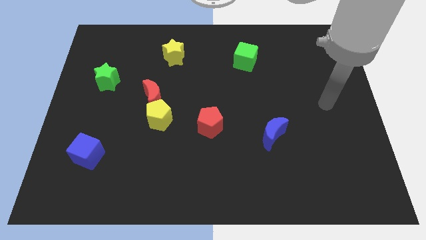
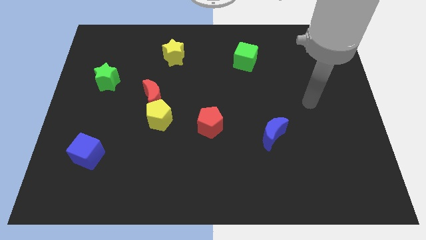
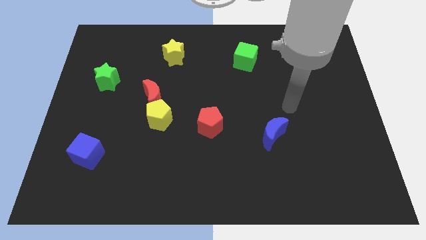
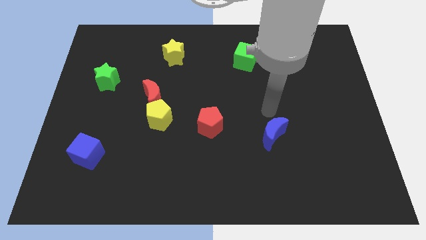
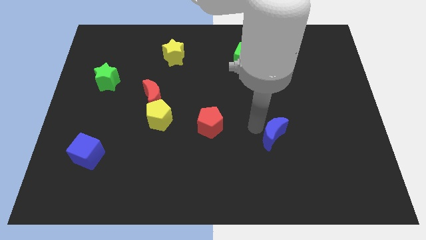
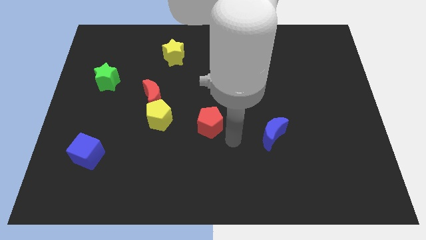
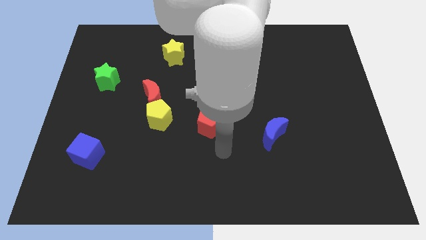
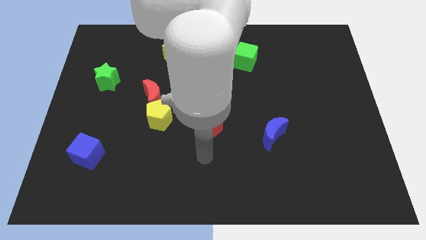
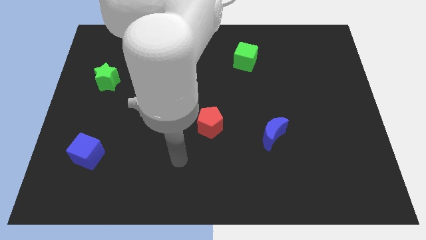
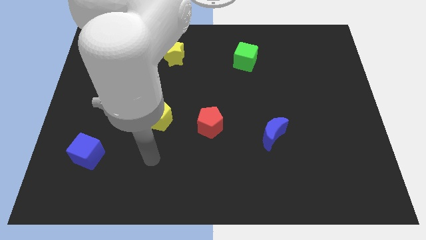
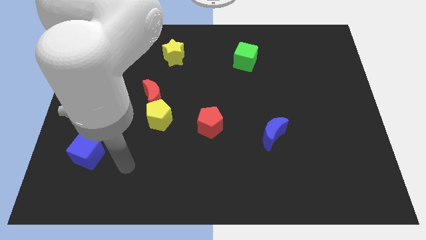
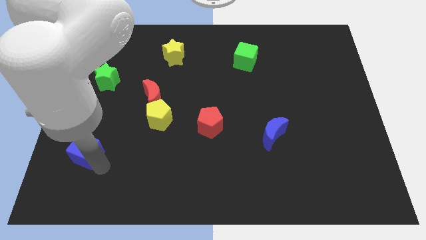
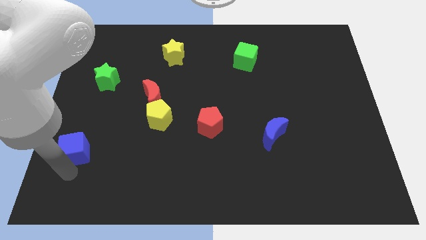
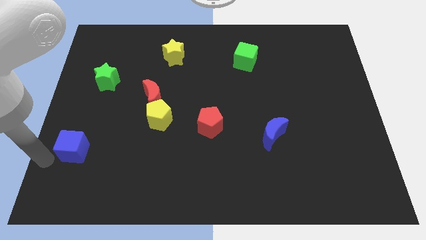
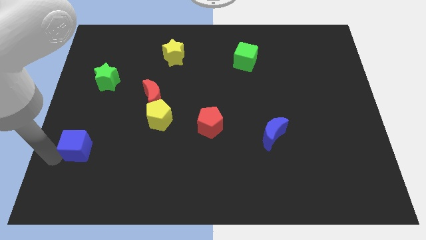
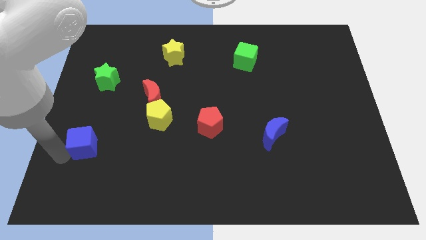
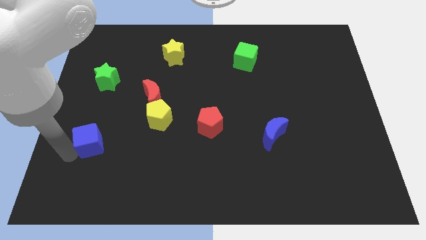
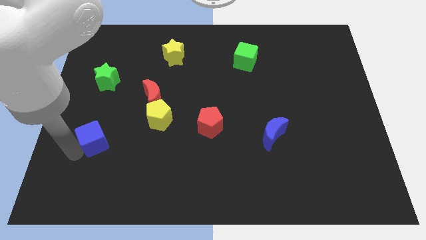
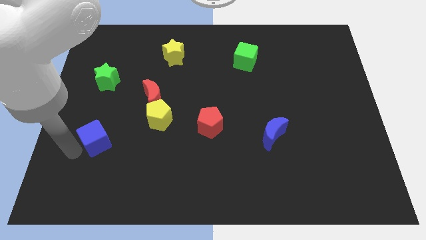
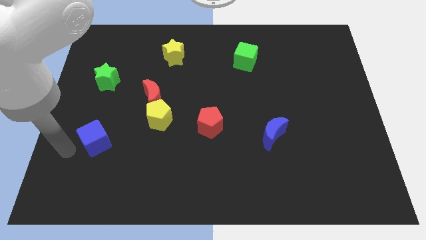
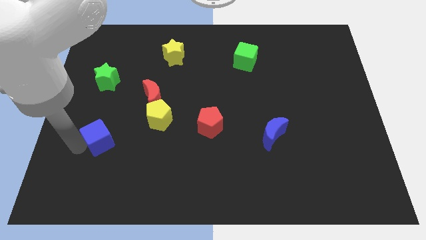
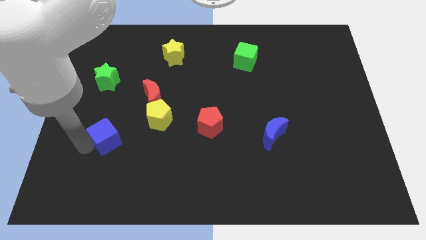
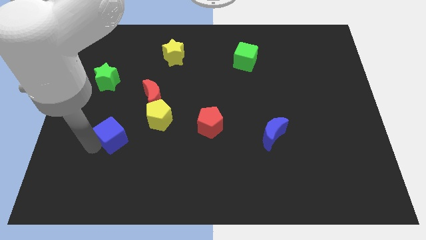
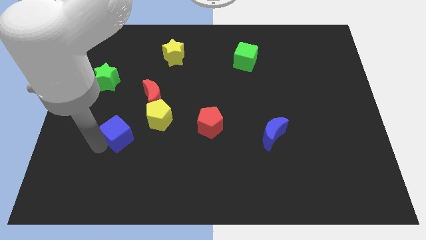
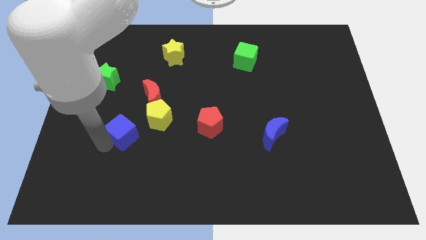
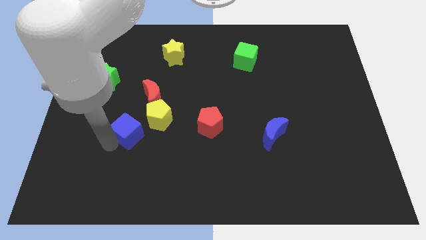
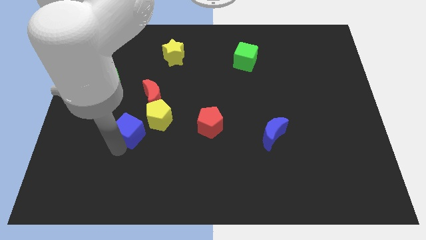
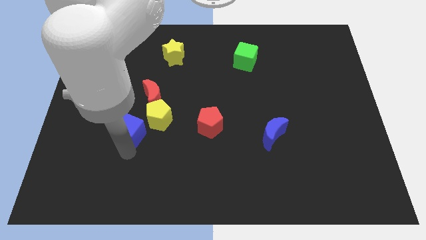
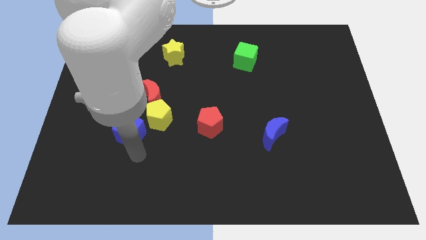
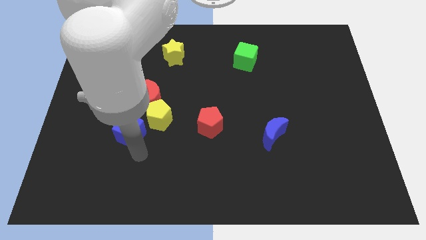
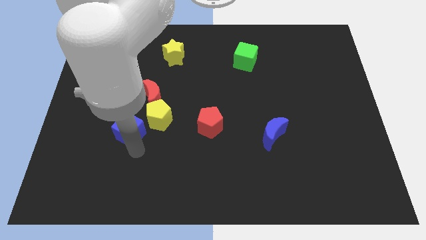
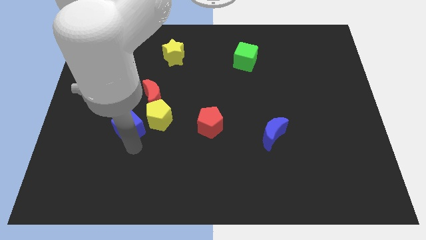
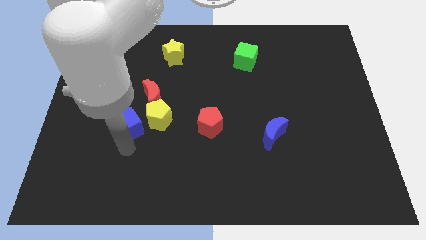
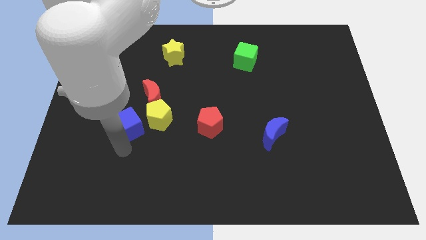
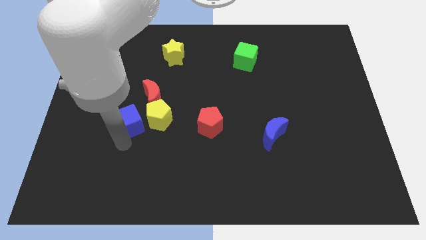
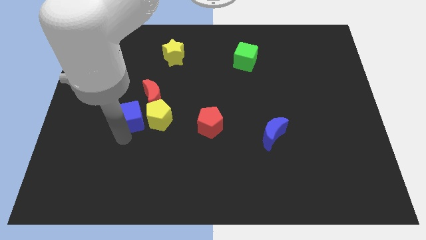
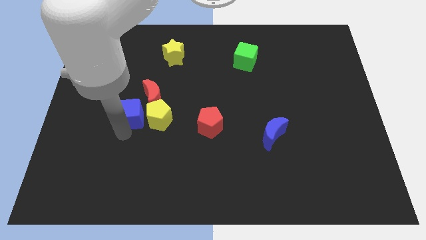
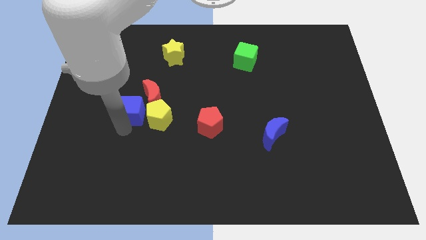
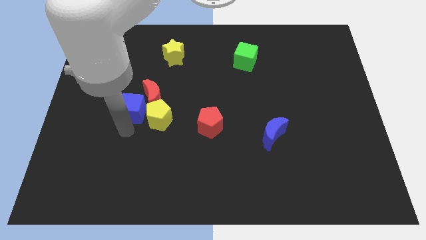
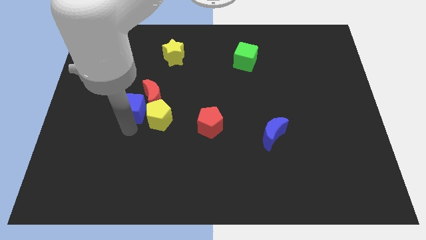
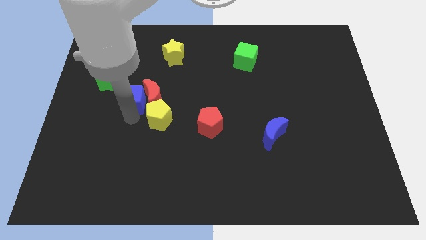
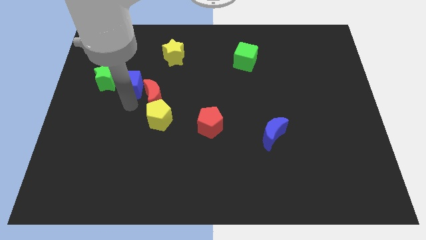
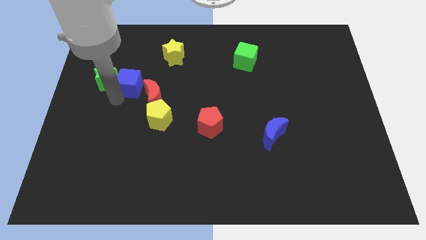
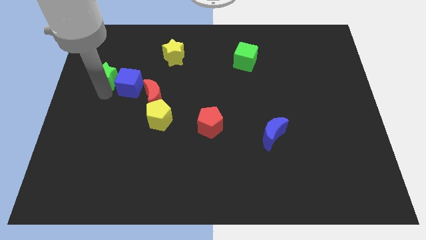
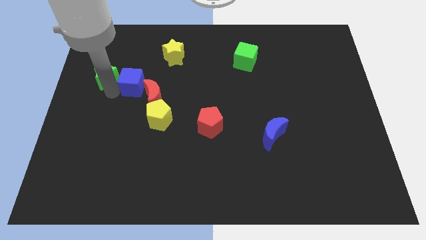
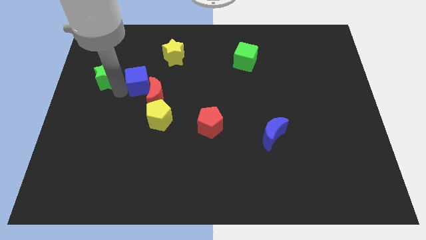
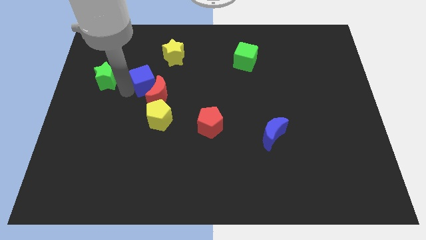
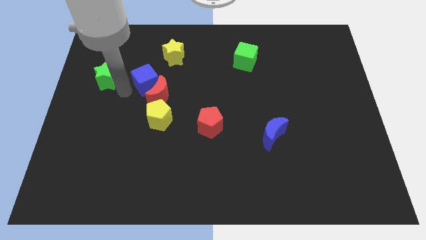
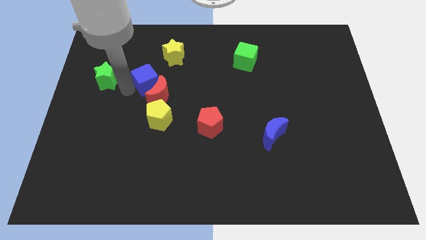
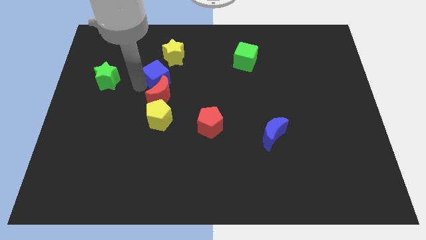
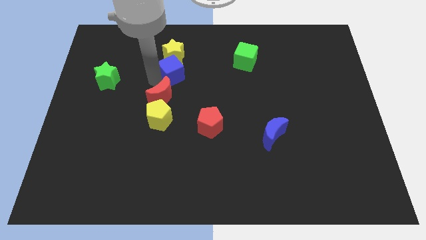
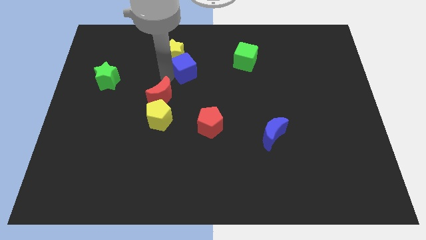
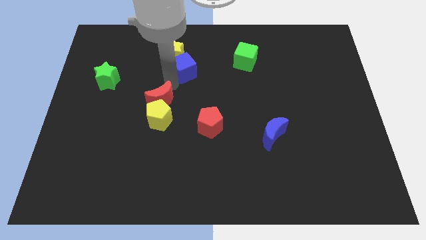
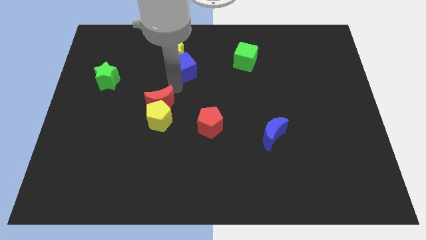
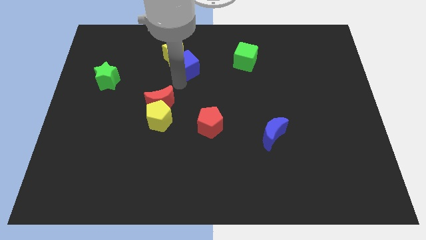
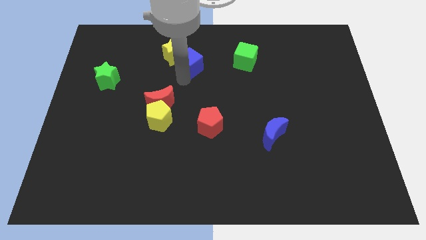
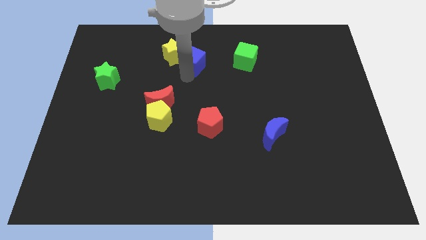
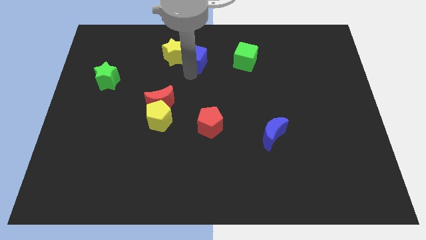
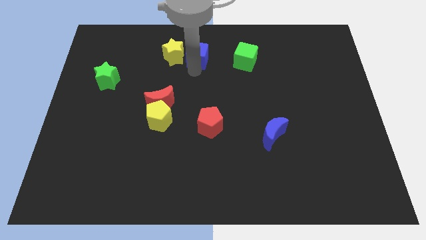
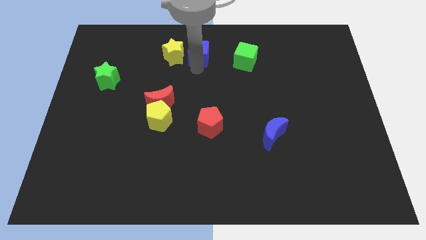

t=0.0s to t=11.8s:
move the blue cube to the top
